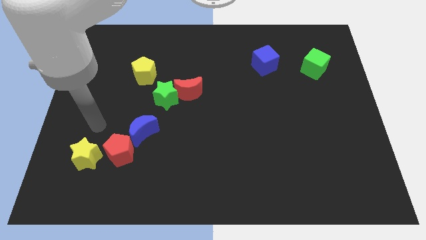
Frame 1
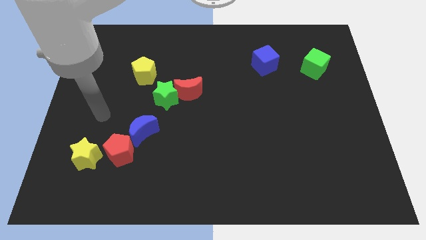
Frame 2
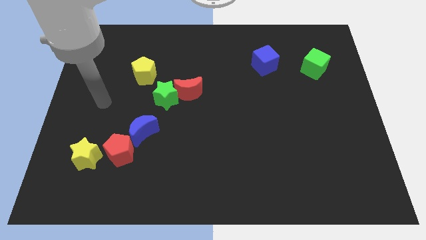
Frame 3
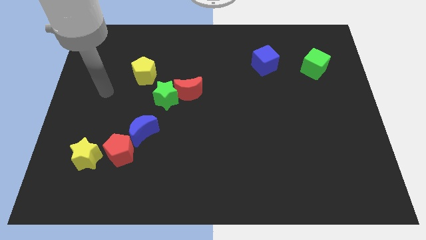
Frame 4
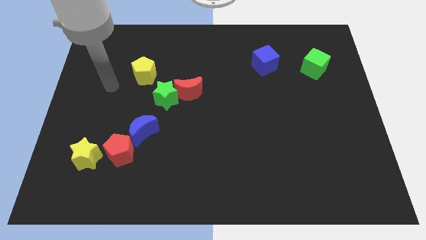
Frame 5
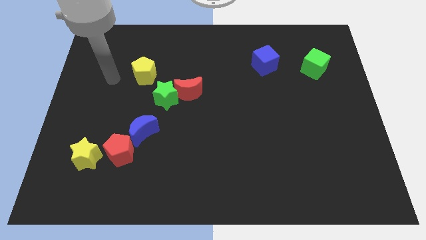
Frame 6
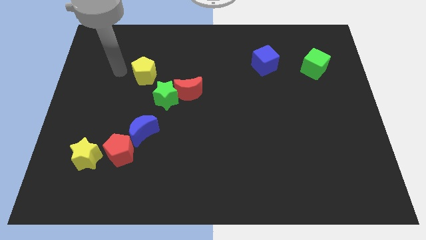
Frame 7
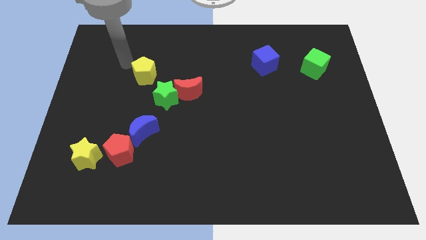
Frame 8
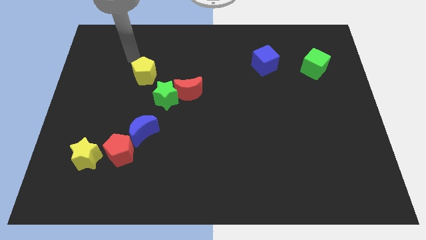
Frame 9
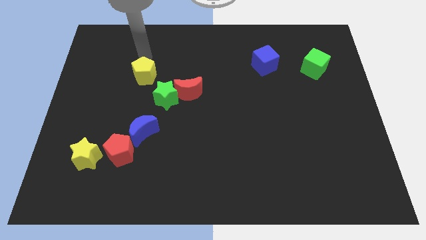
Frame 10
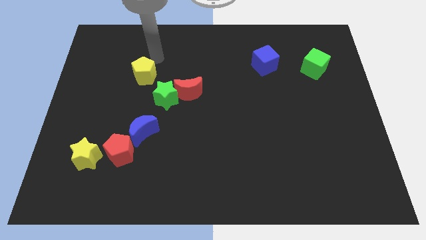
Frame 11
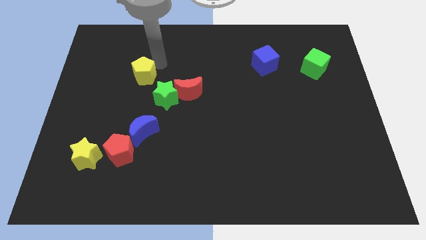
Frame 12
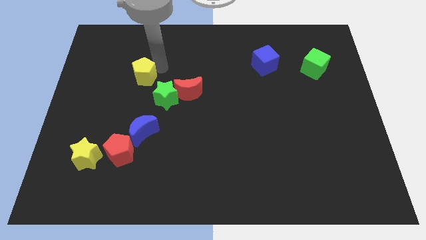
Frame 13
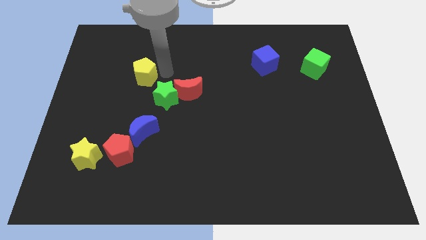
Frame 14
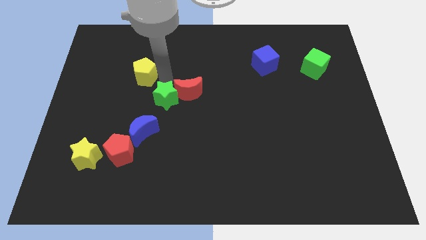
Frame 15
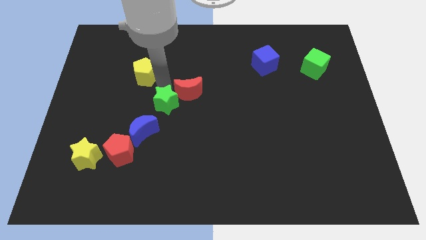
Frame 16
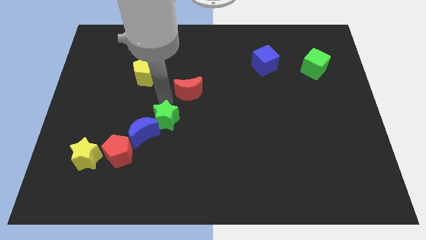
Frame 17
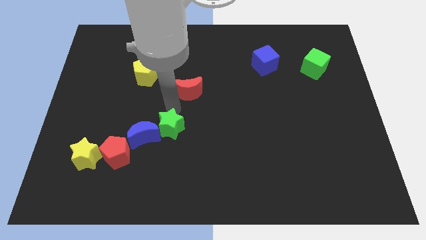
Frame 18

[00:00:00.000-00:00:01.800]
move the red moon away from the green star

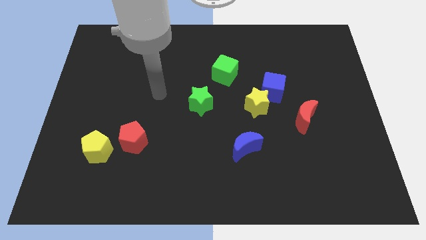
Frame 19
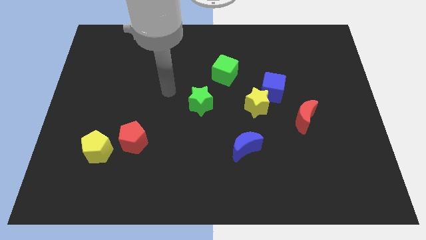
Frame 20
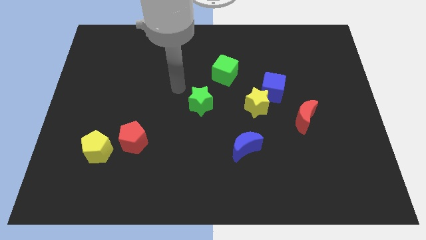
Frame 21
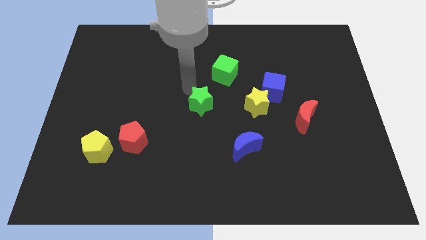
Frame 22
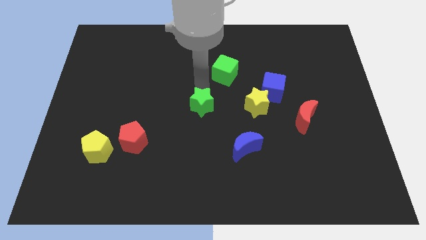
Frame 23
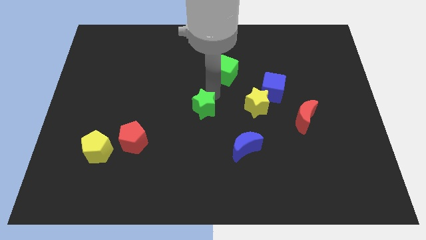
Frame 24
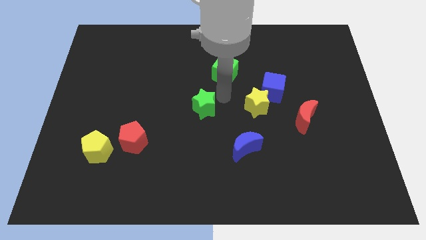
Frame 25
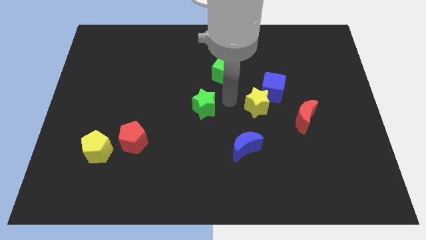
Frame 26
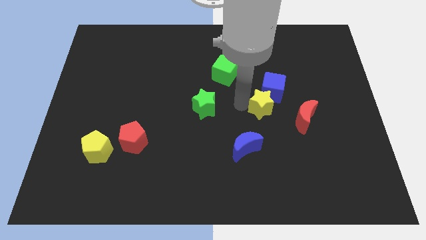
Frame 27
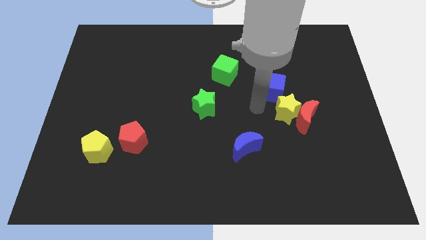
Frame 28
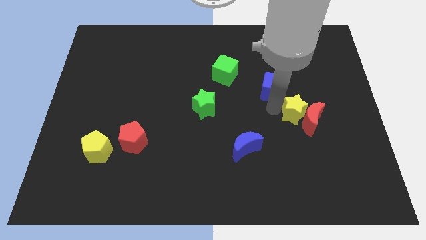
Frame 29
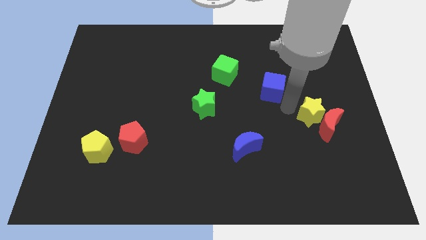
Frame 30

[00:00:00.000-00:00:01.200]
separate the blue cube from the yellow star

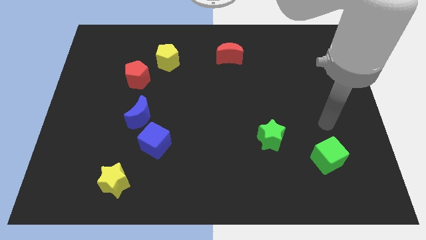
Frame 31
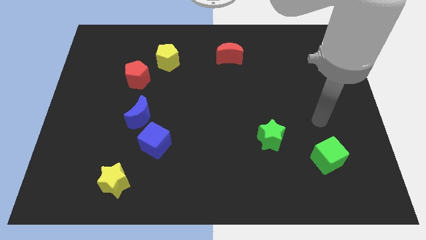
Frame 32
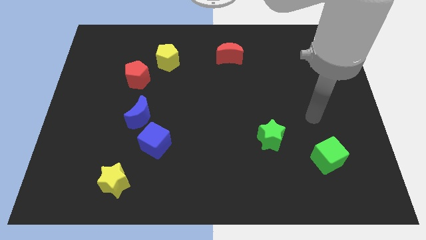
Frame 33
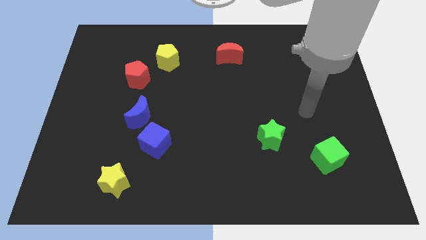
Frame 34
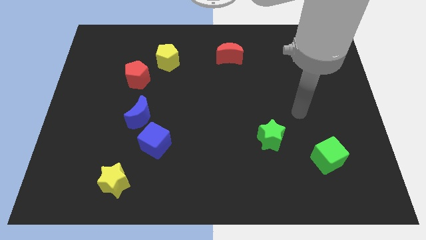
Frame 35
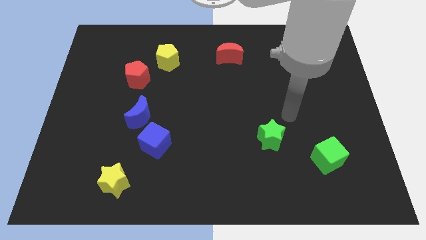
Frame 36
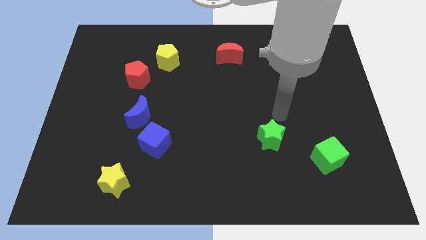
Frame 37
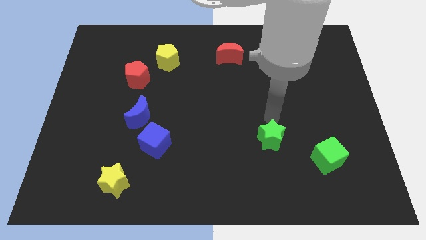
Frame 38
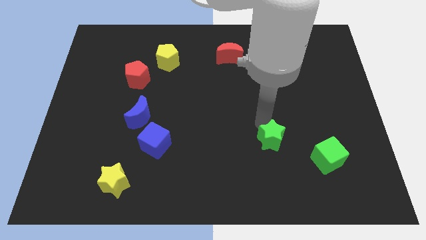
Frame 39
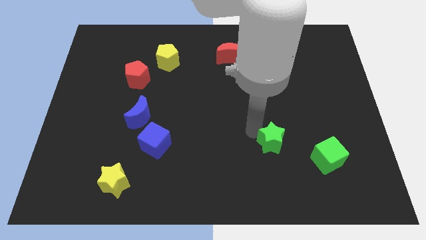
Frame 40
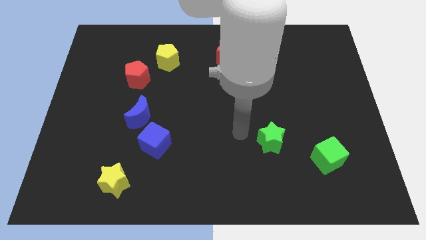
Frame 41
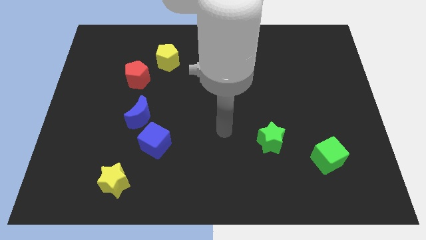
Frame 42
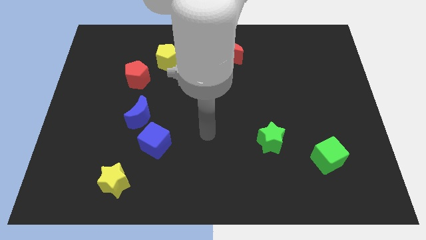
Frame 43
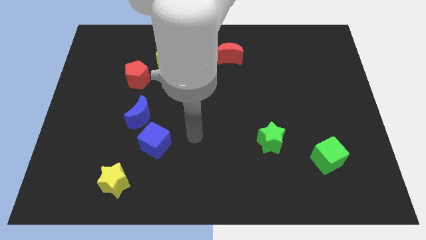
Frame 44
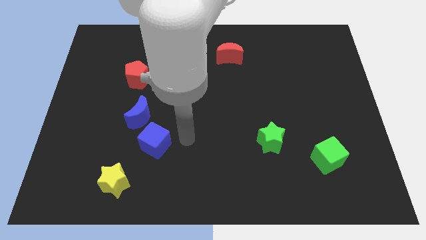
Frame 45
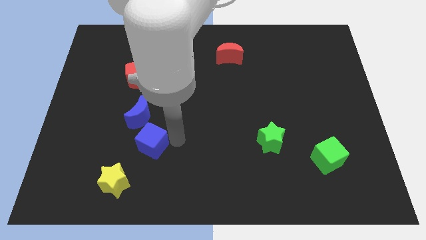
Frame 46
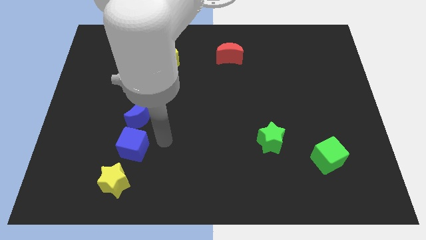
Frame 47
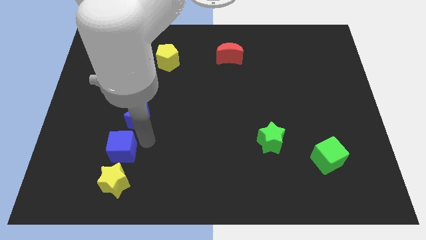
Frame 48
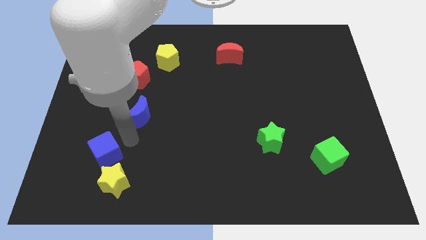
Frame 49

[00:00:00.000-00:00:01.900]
pull the blue moon apart from the blue cube

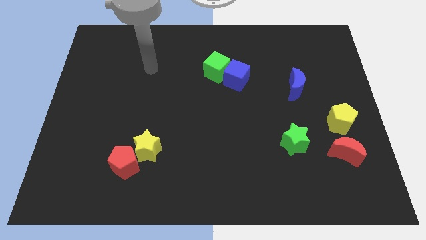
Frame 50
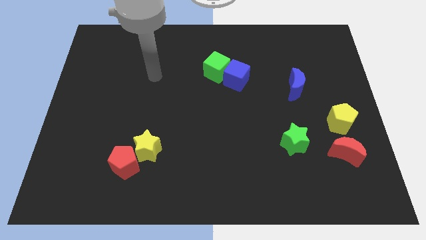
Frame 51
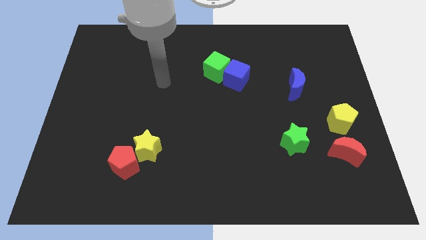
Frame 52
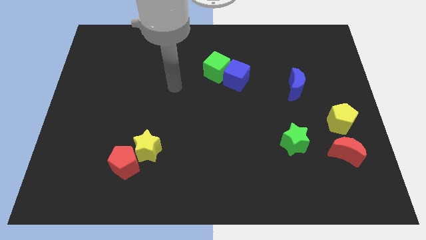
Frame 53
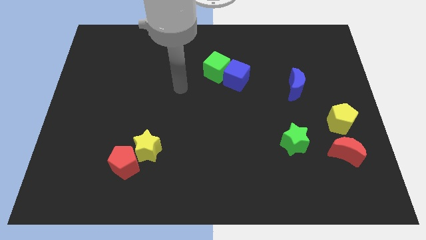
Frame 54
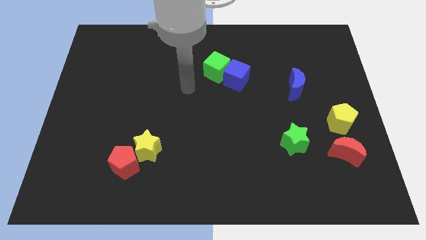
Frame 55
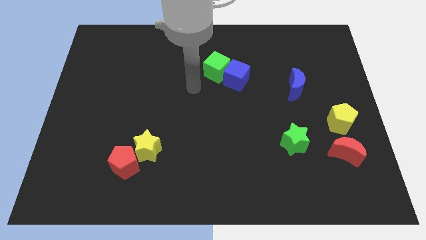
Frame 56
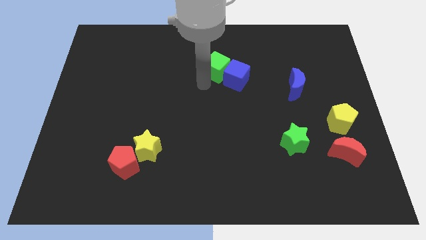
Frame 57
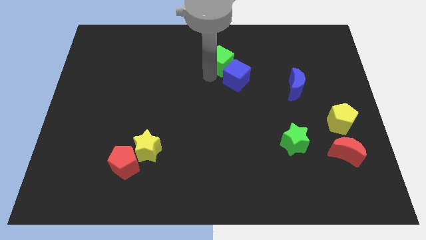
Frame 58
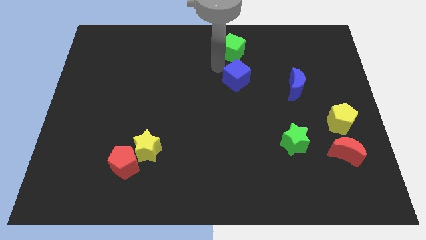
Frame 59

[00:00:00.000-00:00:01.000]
move the blue cube away from the green cube

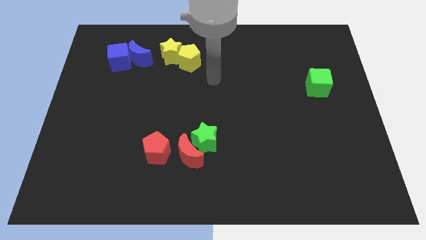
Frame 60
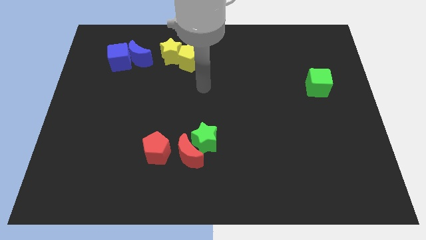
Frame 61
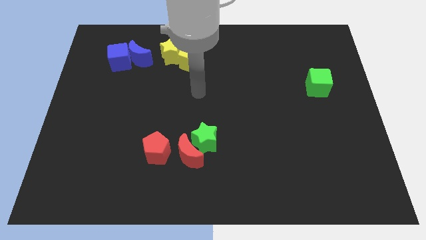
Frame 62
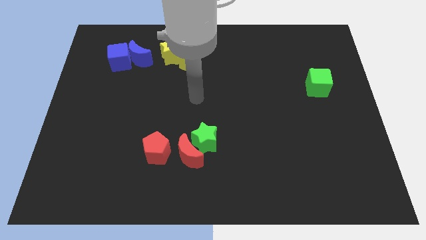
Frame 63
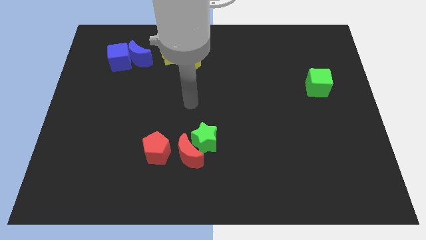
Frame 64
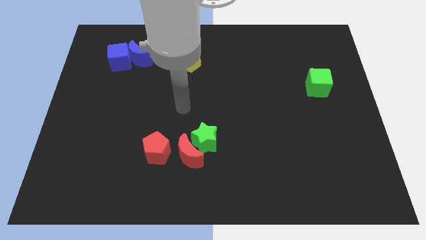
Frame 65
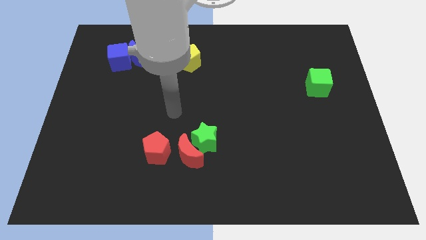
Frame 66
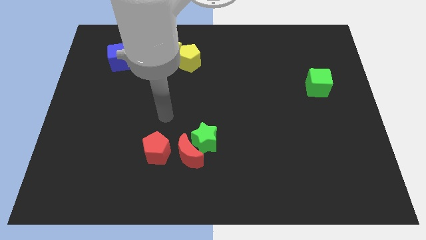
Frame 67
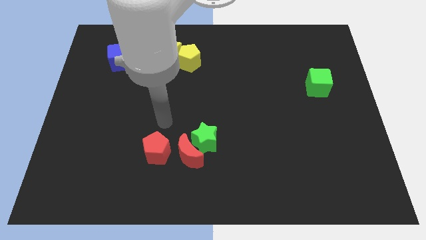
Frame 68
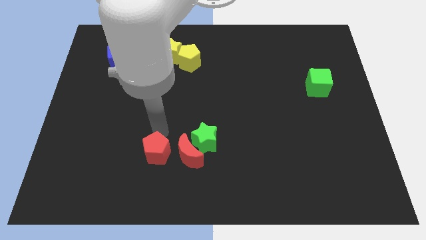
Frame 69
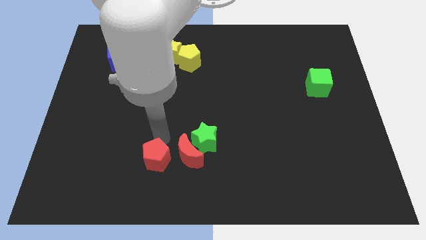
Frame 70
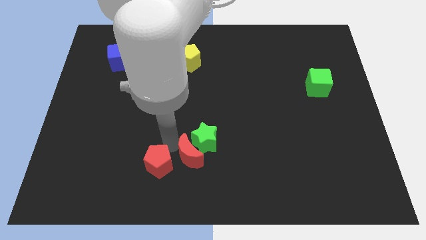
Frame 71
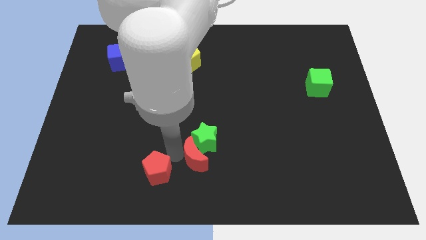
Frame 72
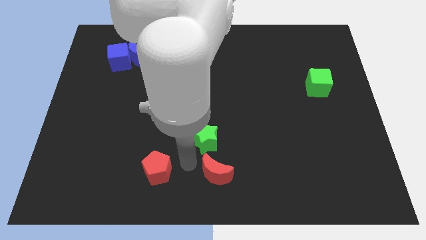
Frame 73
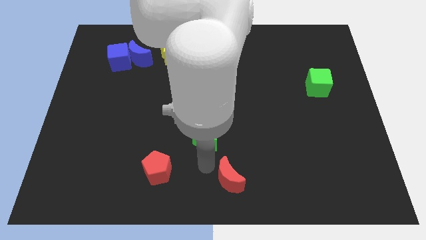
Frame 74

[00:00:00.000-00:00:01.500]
separate the green star from the red moon

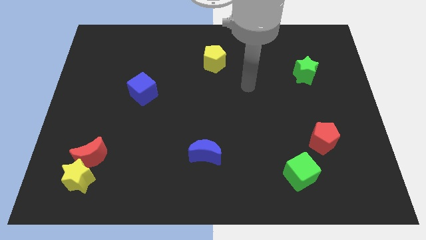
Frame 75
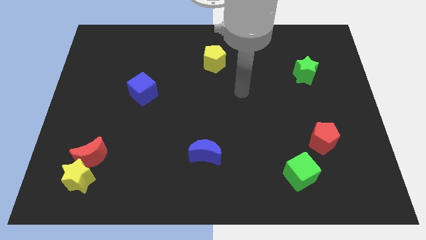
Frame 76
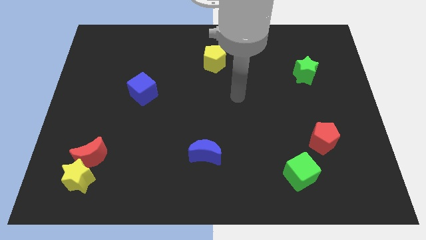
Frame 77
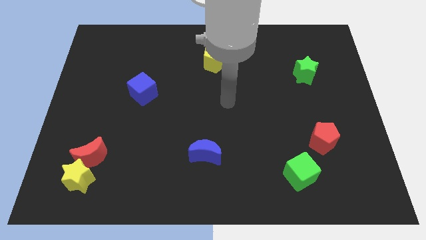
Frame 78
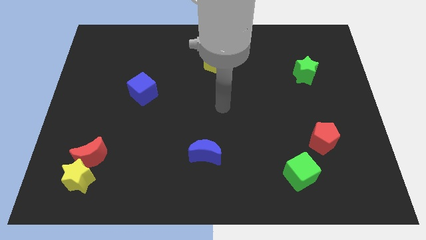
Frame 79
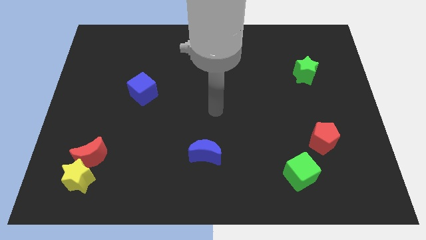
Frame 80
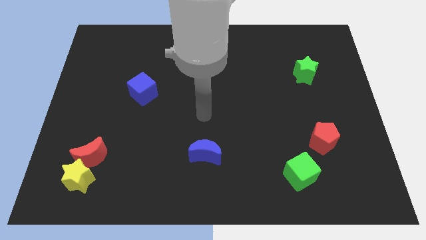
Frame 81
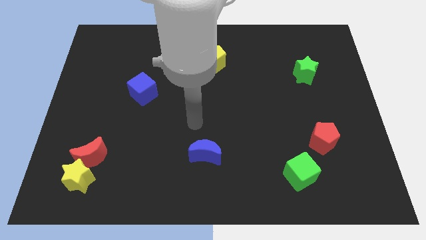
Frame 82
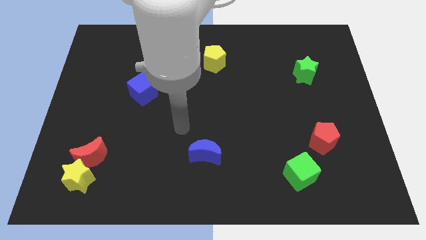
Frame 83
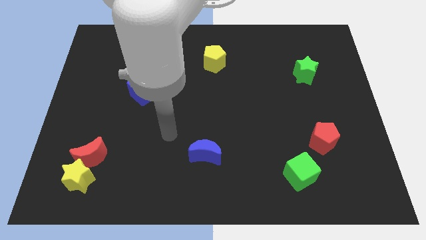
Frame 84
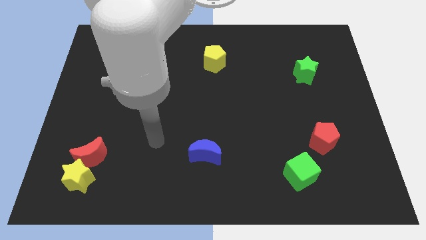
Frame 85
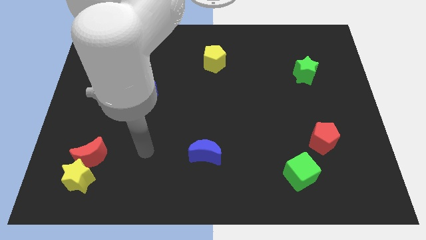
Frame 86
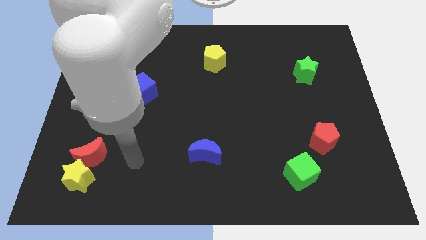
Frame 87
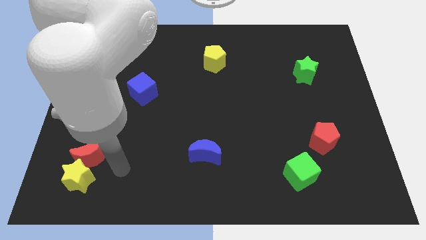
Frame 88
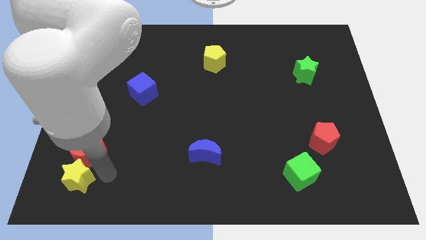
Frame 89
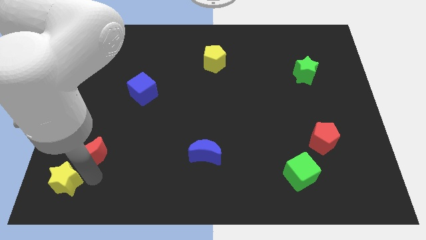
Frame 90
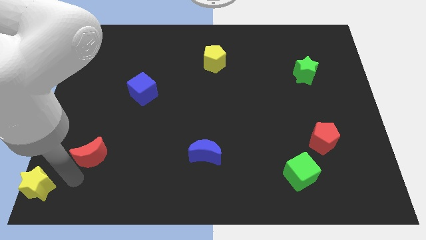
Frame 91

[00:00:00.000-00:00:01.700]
separate the red moon from the yellow star

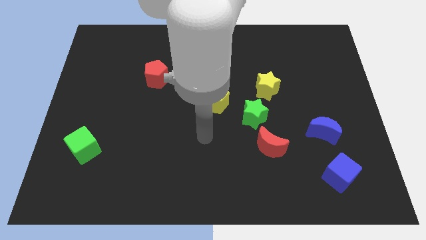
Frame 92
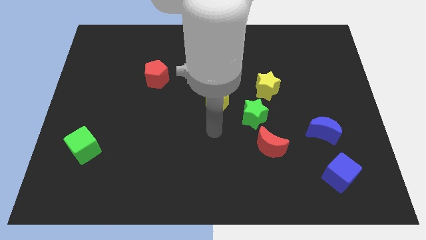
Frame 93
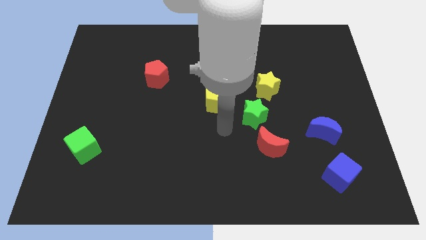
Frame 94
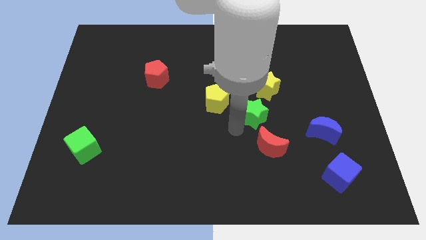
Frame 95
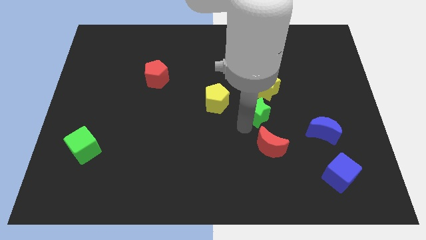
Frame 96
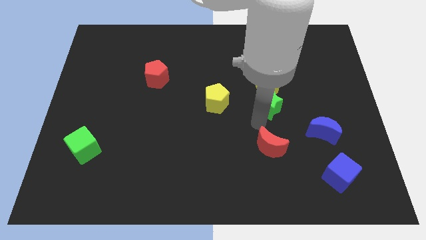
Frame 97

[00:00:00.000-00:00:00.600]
separate the red moon from the green star
